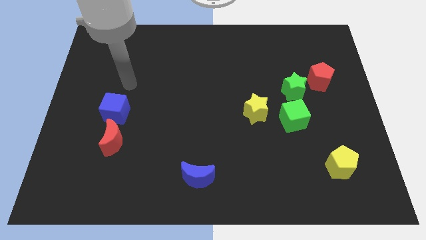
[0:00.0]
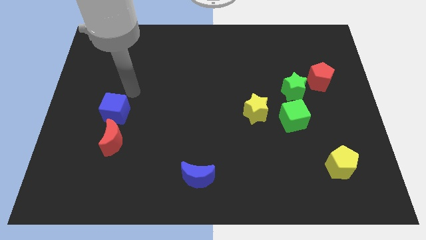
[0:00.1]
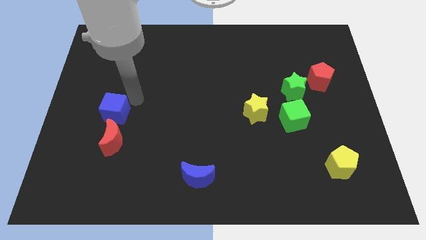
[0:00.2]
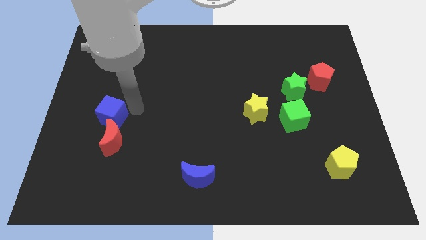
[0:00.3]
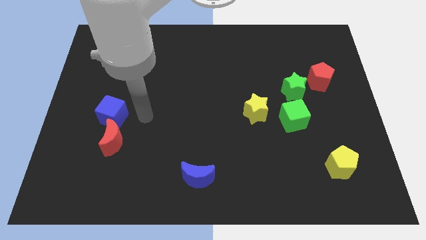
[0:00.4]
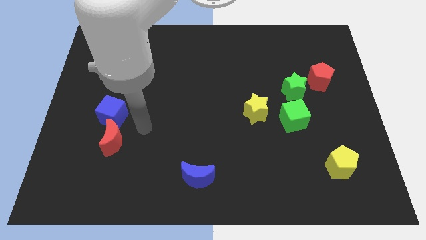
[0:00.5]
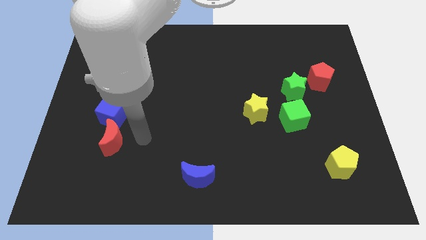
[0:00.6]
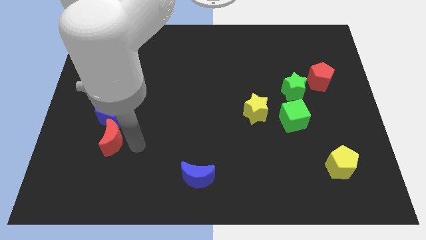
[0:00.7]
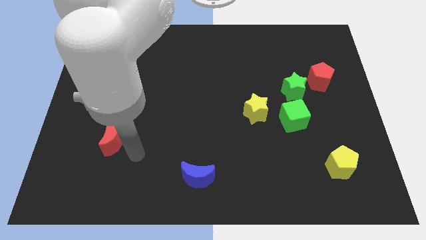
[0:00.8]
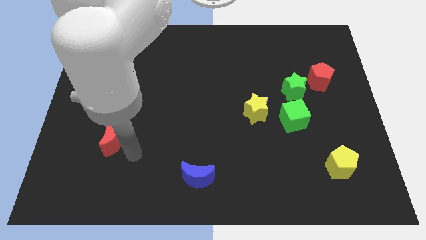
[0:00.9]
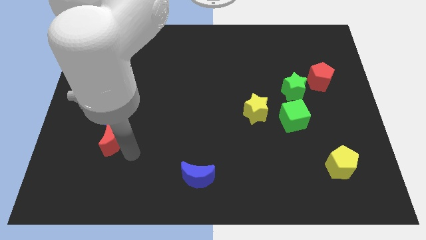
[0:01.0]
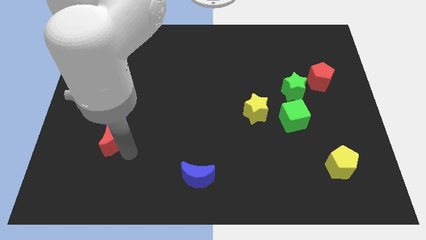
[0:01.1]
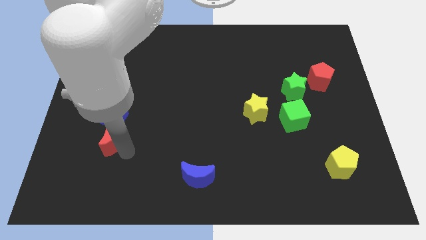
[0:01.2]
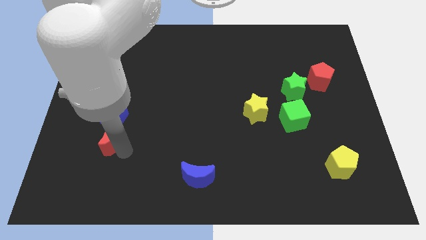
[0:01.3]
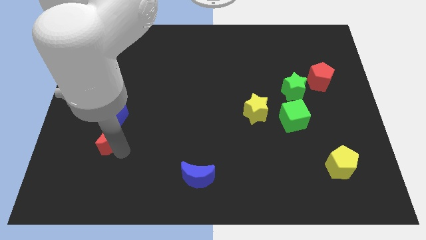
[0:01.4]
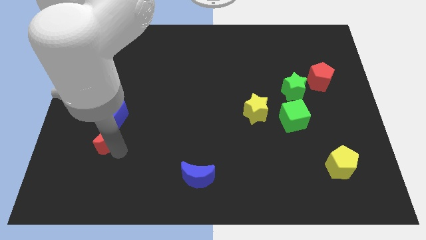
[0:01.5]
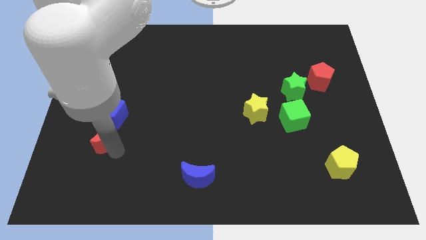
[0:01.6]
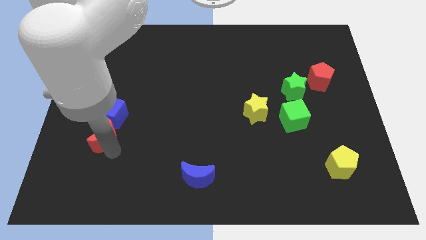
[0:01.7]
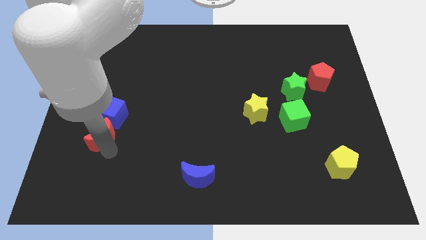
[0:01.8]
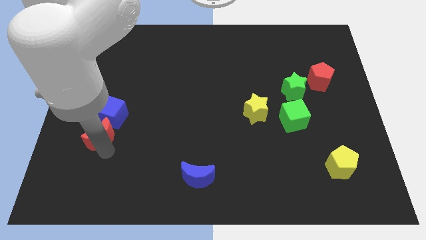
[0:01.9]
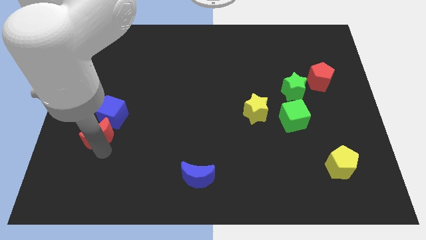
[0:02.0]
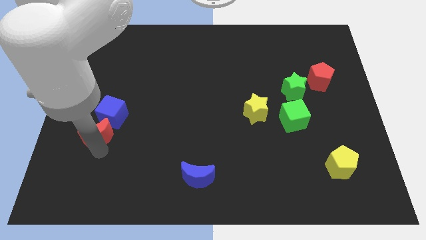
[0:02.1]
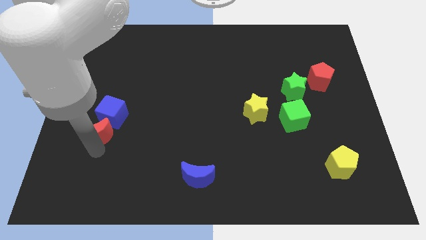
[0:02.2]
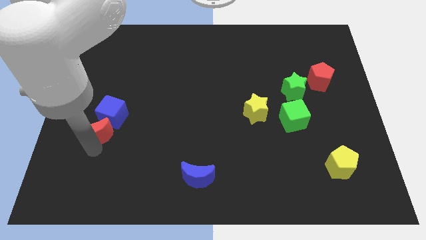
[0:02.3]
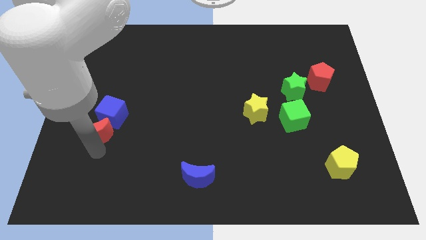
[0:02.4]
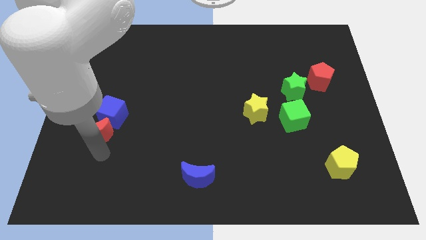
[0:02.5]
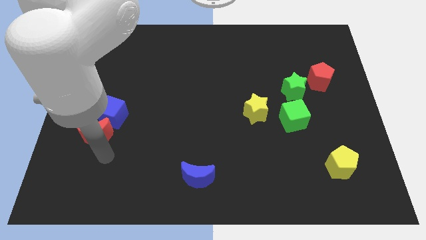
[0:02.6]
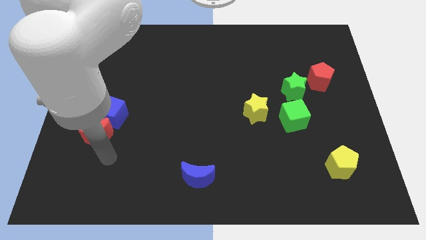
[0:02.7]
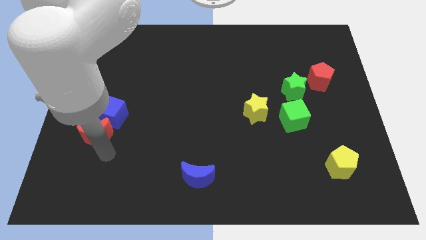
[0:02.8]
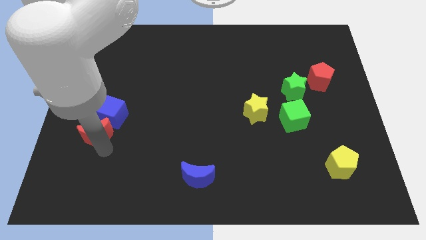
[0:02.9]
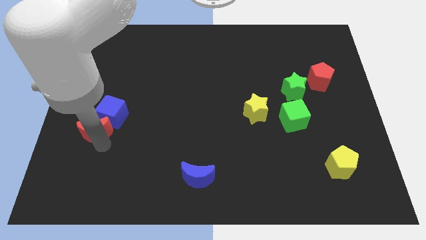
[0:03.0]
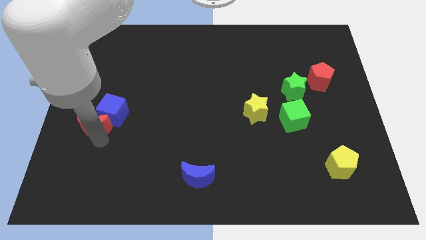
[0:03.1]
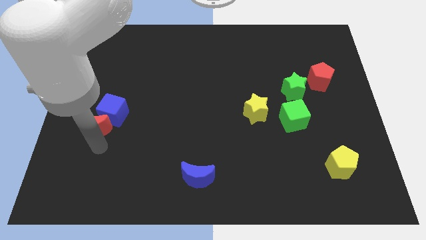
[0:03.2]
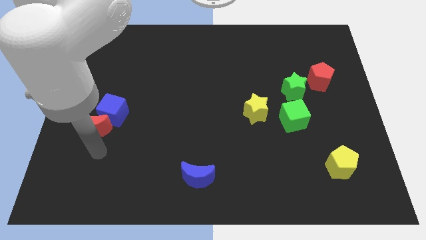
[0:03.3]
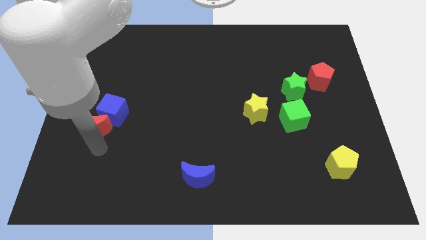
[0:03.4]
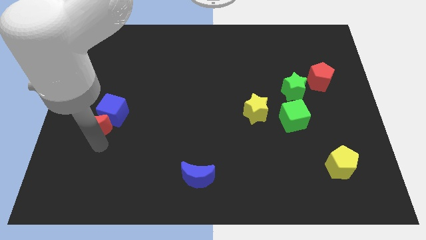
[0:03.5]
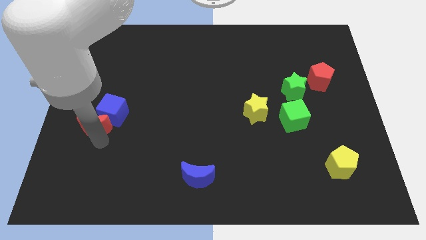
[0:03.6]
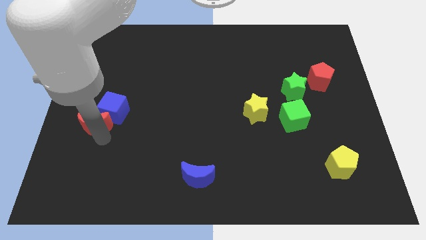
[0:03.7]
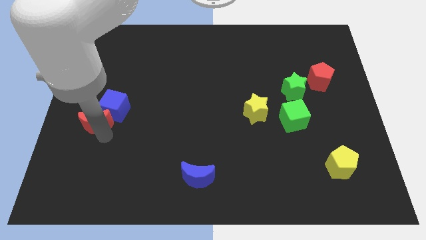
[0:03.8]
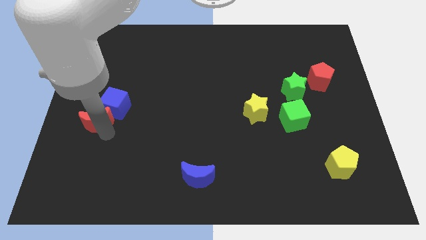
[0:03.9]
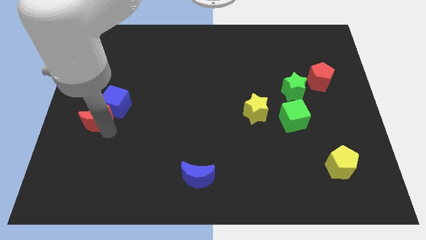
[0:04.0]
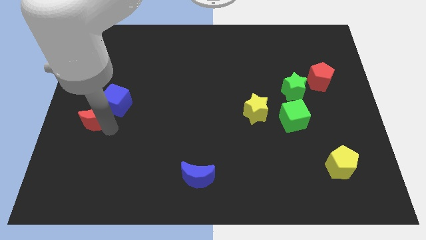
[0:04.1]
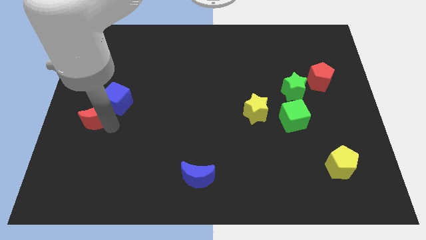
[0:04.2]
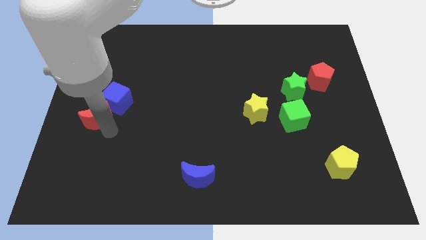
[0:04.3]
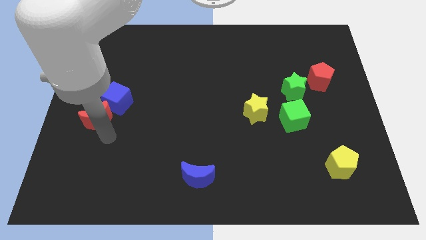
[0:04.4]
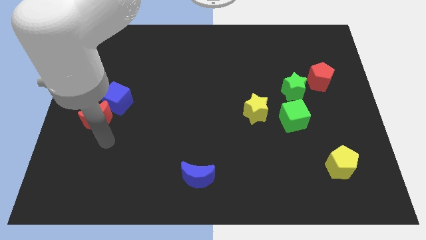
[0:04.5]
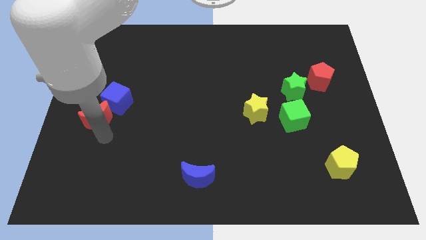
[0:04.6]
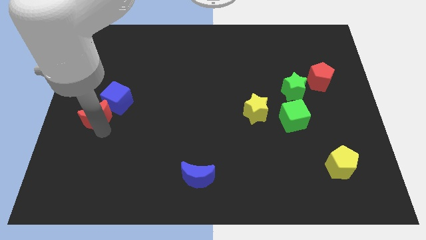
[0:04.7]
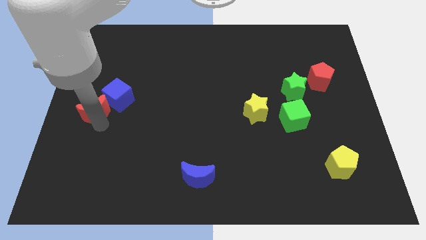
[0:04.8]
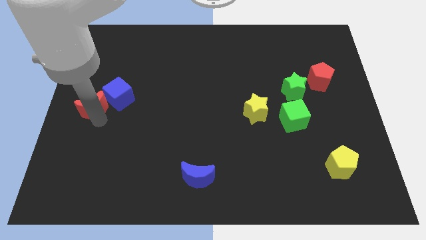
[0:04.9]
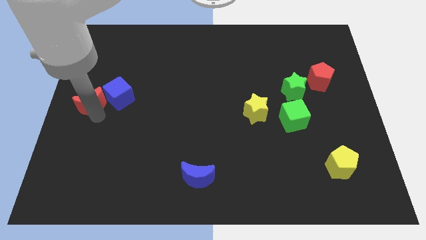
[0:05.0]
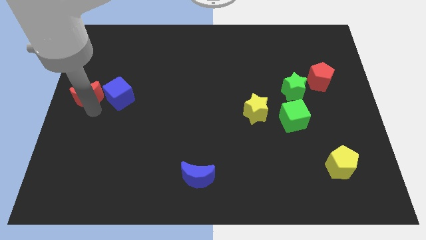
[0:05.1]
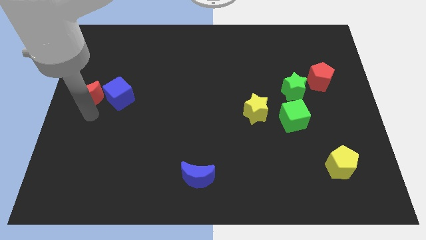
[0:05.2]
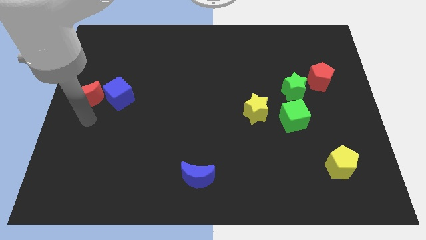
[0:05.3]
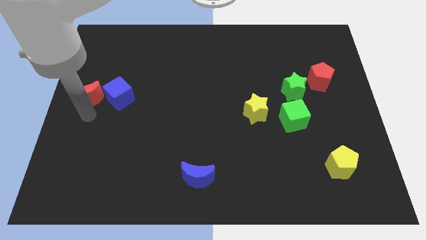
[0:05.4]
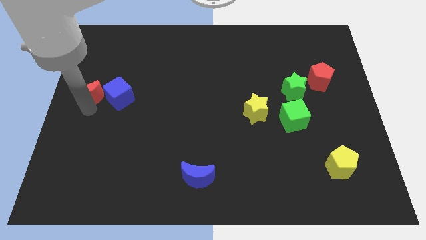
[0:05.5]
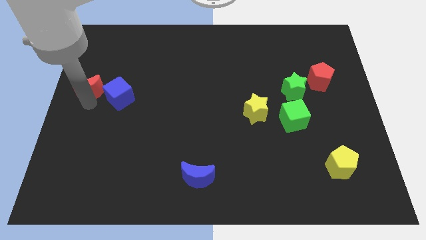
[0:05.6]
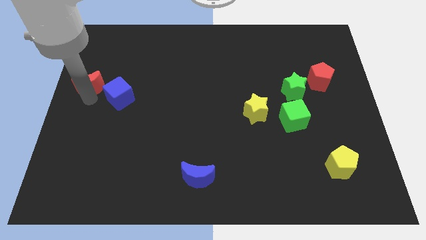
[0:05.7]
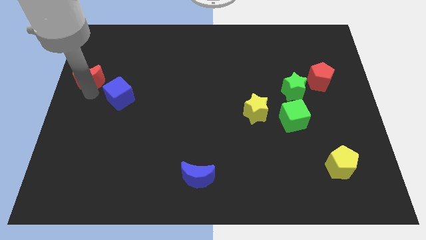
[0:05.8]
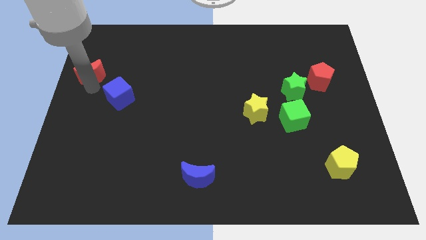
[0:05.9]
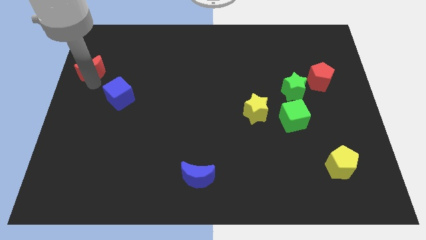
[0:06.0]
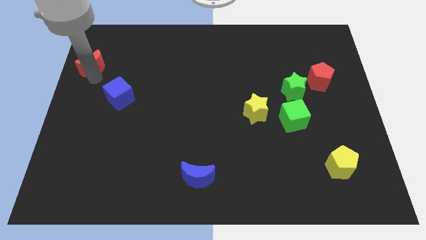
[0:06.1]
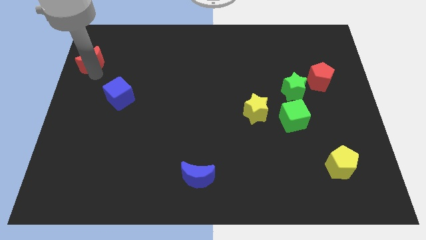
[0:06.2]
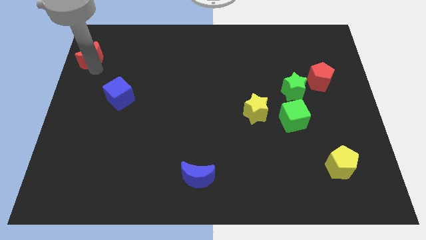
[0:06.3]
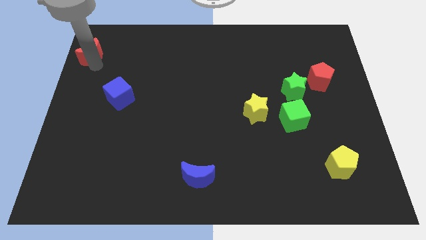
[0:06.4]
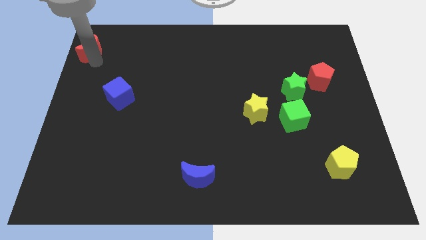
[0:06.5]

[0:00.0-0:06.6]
move the red moon to the upper left corner
